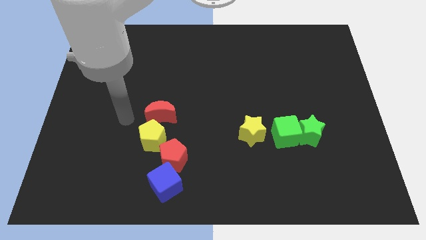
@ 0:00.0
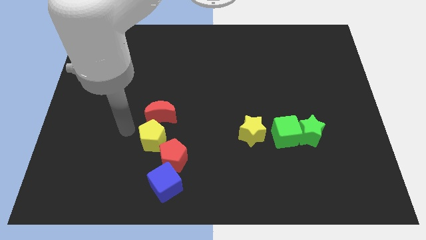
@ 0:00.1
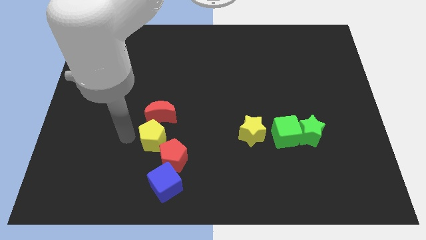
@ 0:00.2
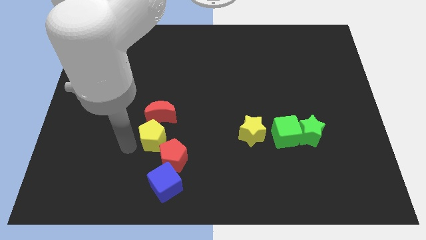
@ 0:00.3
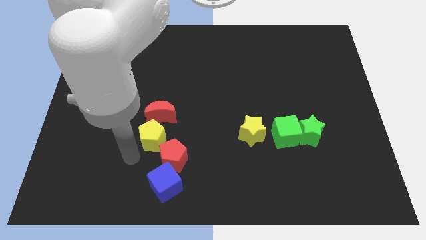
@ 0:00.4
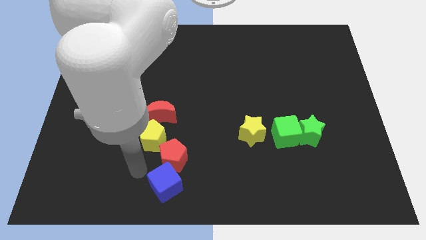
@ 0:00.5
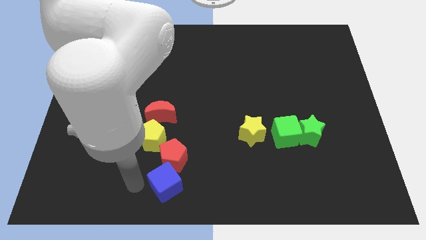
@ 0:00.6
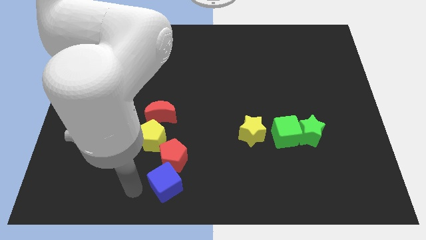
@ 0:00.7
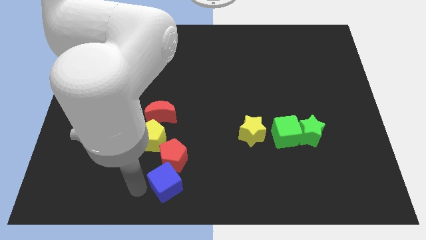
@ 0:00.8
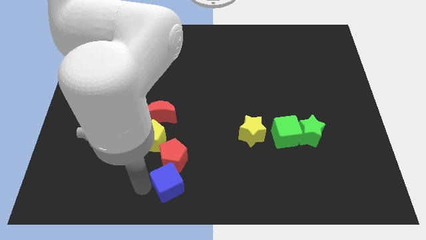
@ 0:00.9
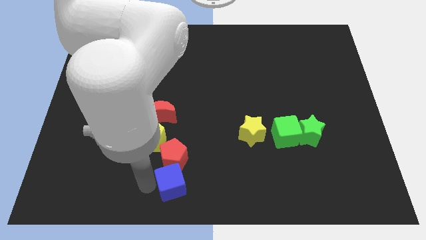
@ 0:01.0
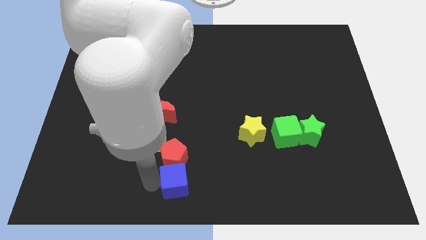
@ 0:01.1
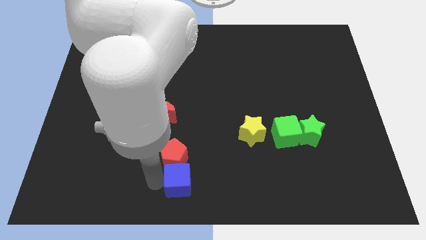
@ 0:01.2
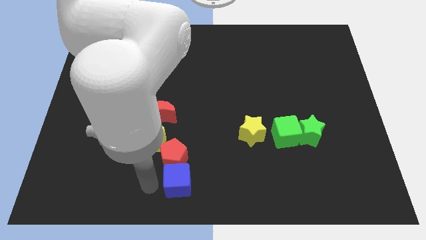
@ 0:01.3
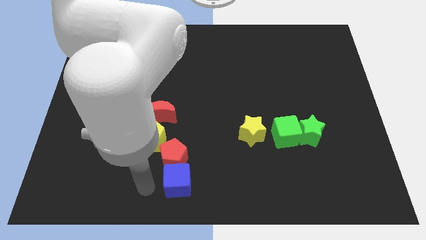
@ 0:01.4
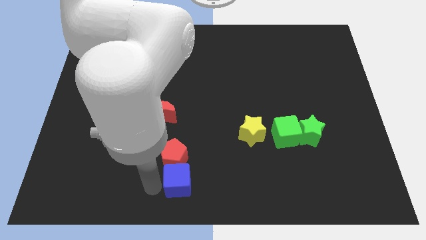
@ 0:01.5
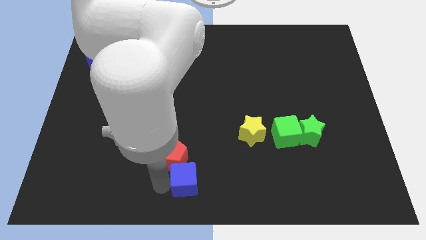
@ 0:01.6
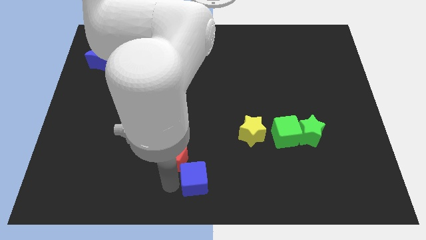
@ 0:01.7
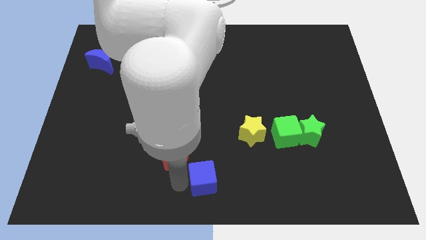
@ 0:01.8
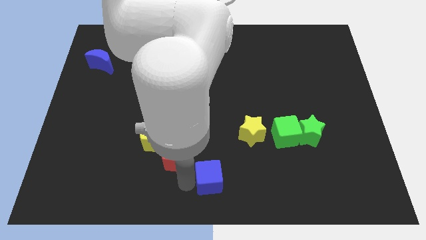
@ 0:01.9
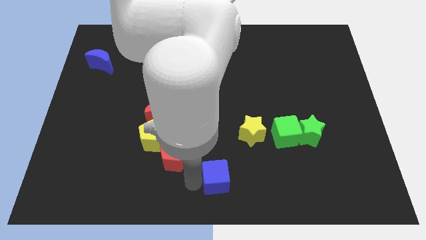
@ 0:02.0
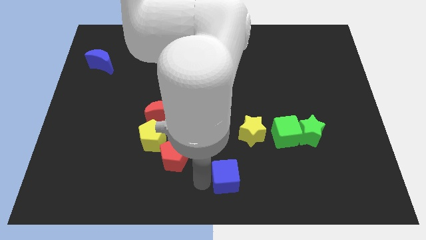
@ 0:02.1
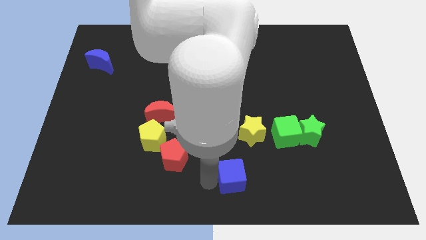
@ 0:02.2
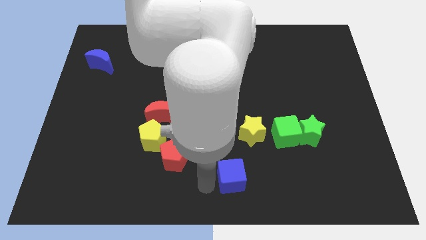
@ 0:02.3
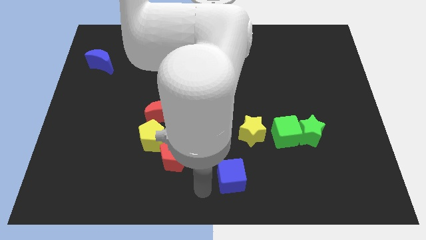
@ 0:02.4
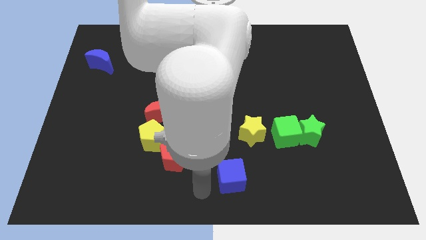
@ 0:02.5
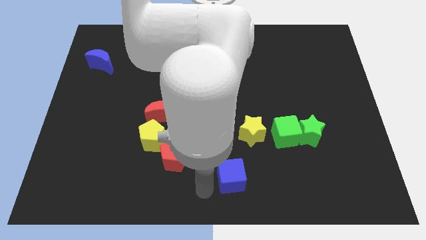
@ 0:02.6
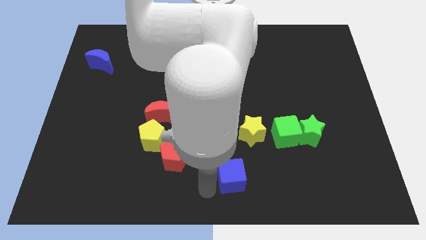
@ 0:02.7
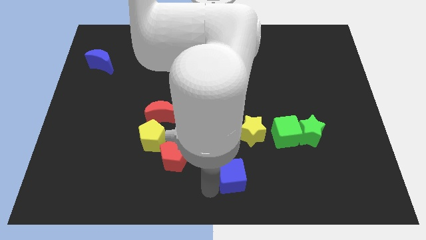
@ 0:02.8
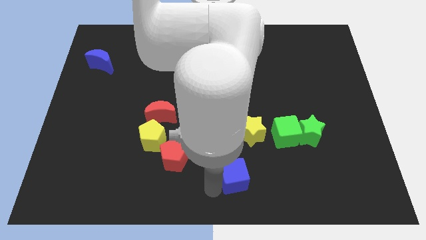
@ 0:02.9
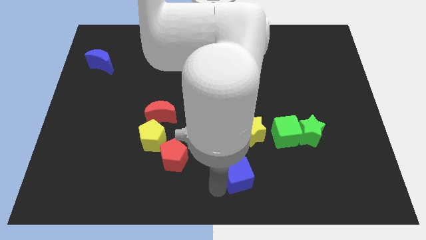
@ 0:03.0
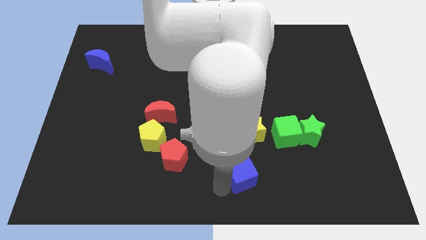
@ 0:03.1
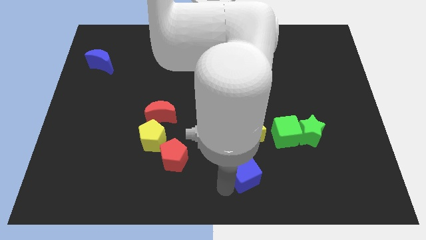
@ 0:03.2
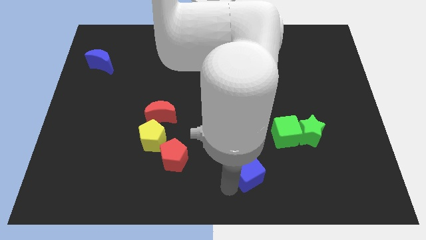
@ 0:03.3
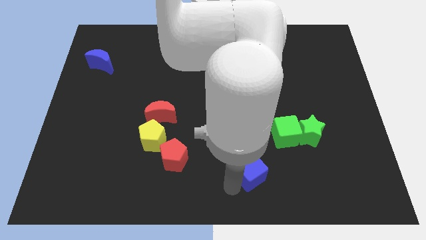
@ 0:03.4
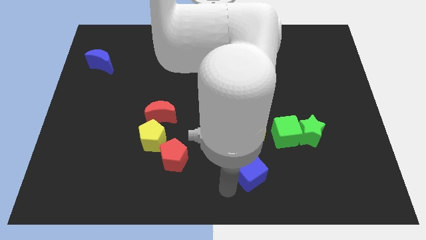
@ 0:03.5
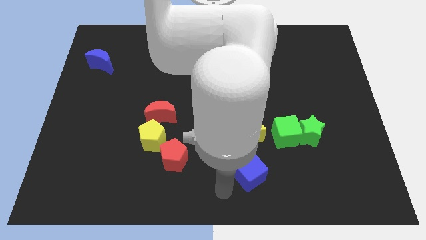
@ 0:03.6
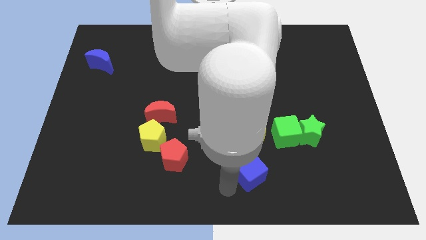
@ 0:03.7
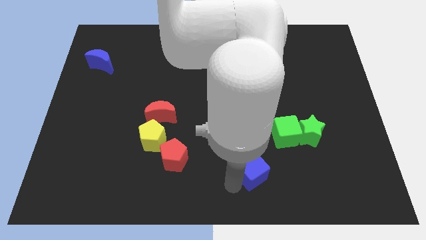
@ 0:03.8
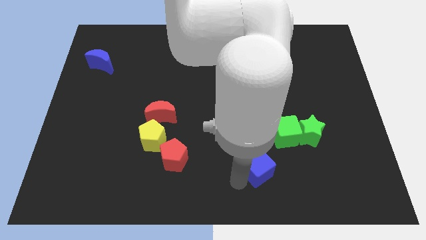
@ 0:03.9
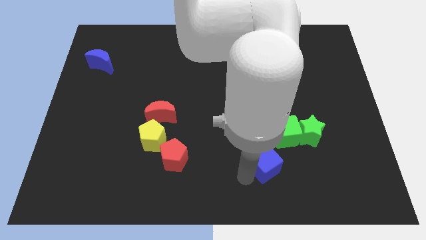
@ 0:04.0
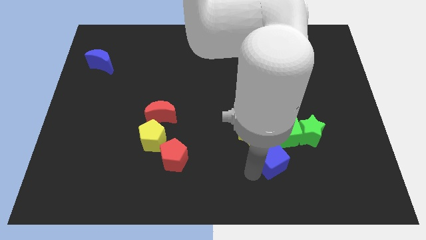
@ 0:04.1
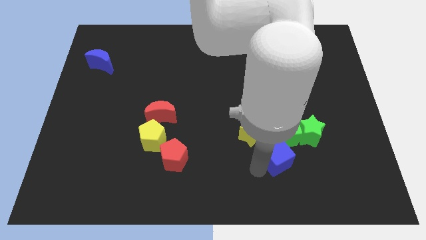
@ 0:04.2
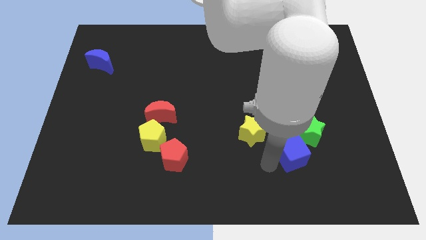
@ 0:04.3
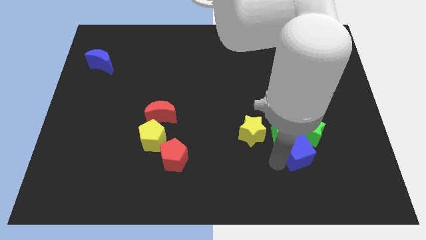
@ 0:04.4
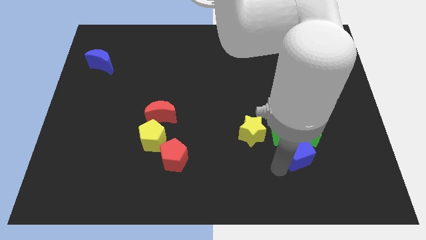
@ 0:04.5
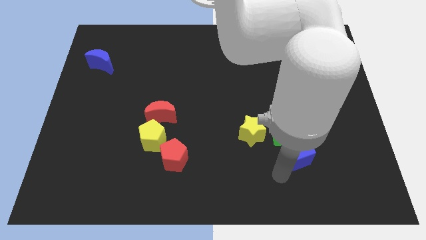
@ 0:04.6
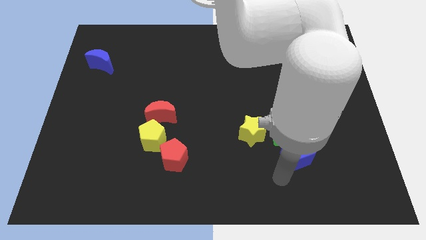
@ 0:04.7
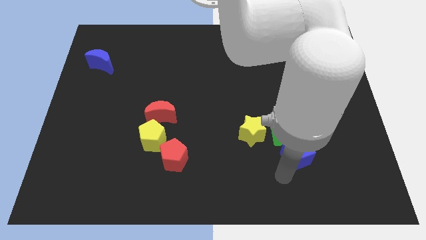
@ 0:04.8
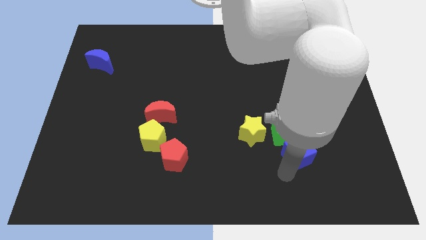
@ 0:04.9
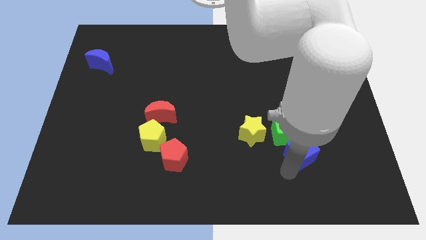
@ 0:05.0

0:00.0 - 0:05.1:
slide the blue cube towards the green star

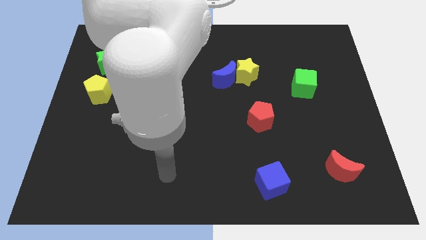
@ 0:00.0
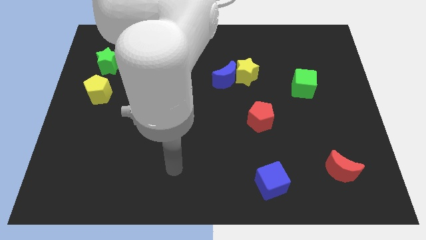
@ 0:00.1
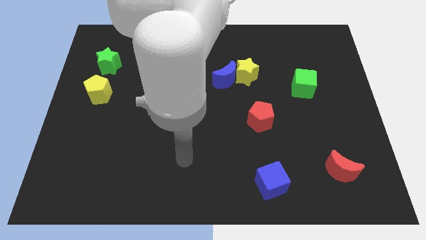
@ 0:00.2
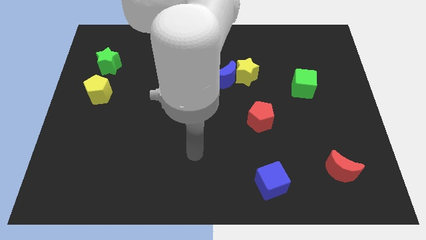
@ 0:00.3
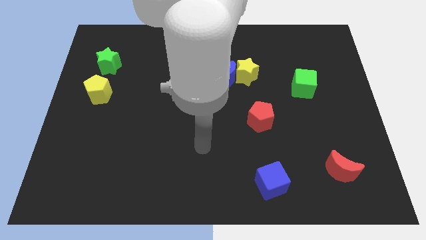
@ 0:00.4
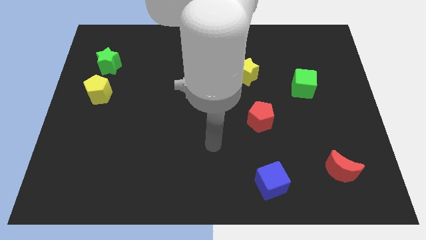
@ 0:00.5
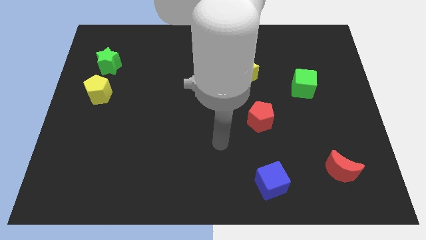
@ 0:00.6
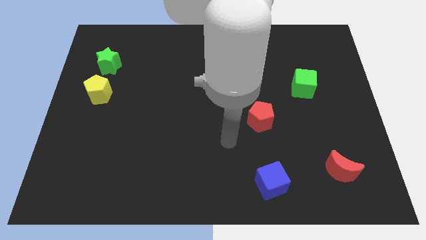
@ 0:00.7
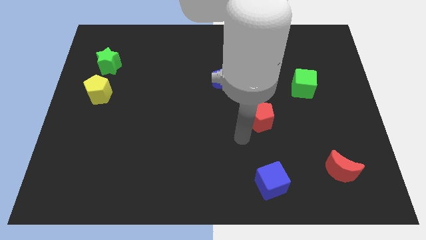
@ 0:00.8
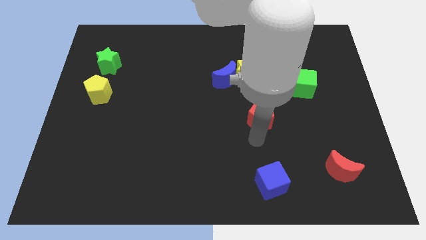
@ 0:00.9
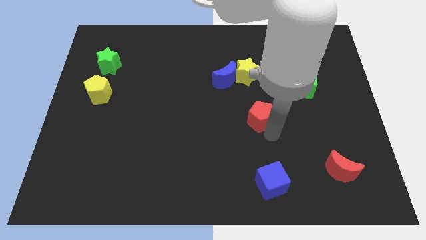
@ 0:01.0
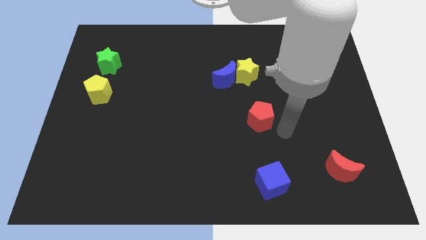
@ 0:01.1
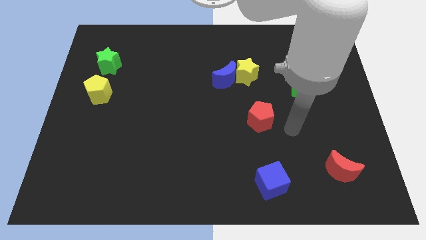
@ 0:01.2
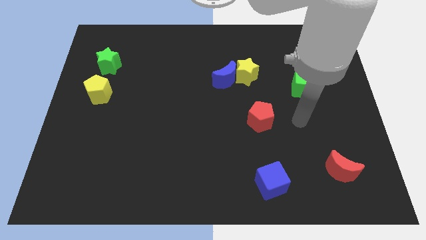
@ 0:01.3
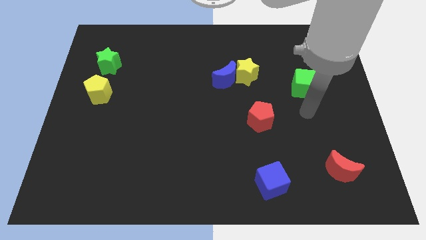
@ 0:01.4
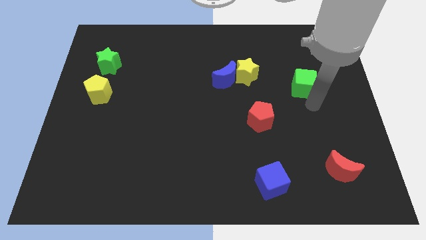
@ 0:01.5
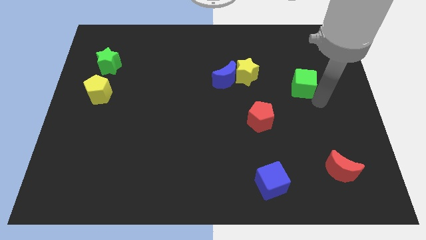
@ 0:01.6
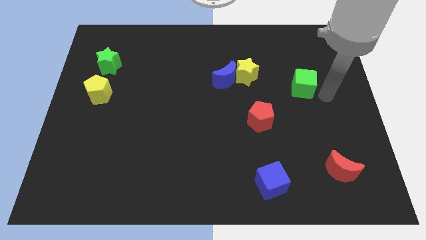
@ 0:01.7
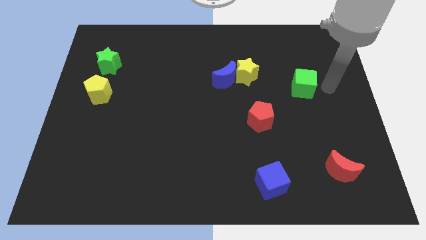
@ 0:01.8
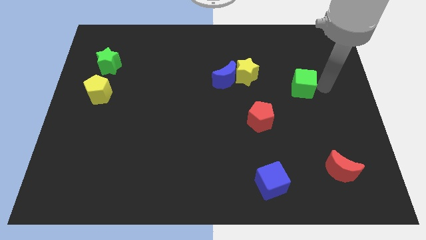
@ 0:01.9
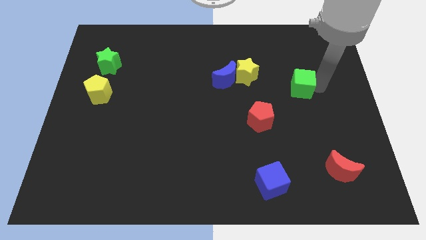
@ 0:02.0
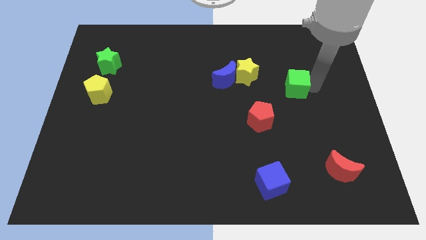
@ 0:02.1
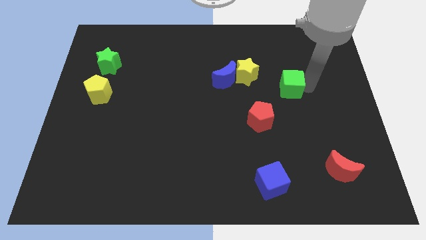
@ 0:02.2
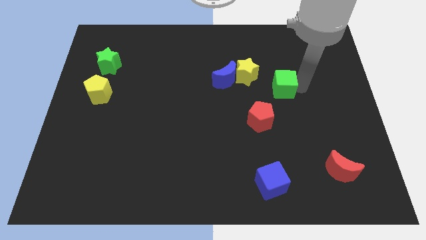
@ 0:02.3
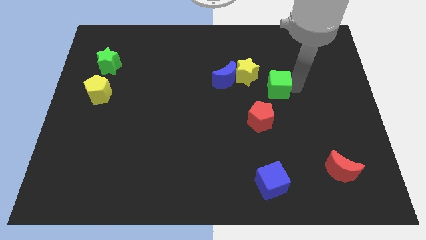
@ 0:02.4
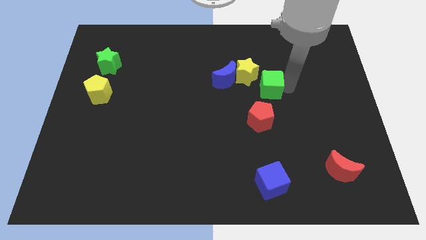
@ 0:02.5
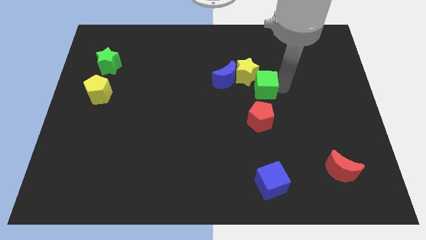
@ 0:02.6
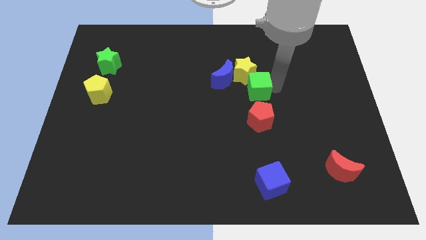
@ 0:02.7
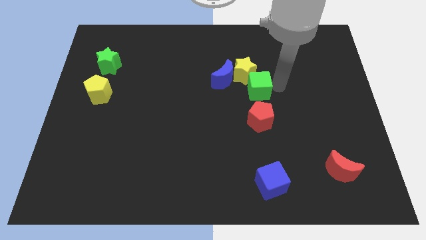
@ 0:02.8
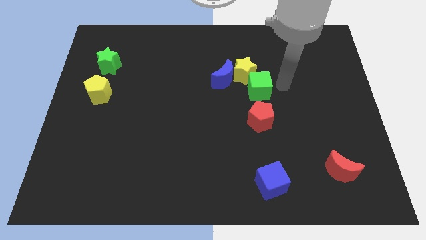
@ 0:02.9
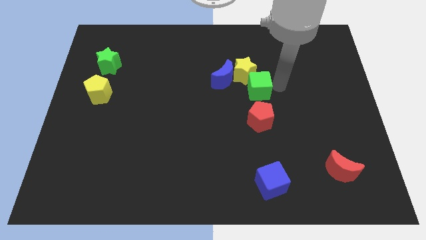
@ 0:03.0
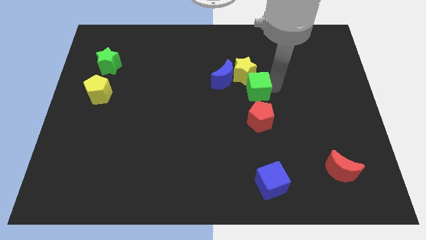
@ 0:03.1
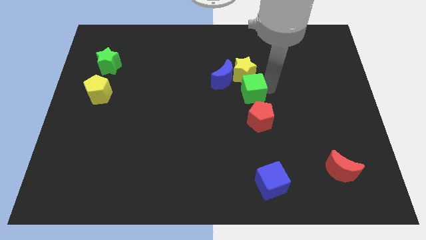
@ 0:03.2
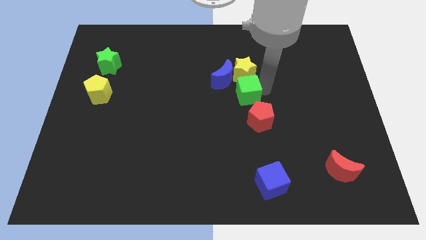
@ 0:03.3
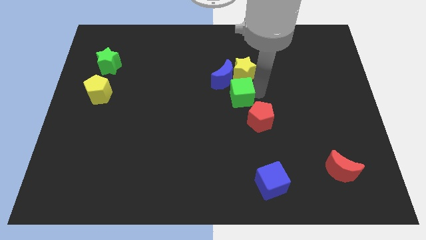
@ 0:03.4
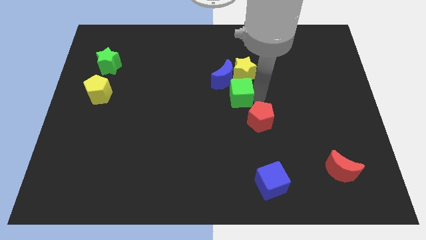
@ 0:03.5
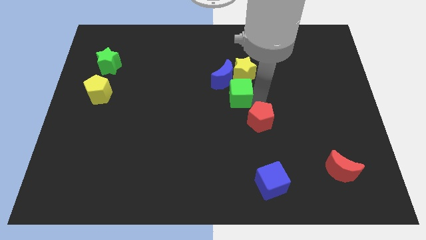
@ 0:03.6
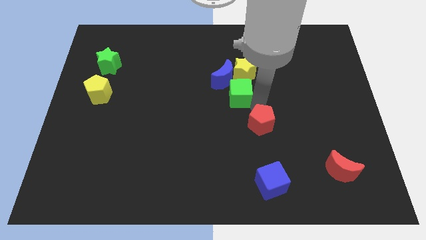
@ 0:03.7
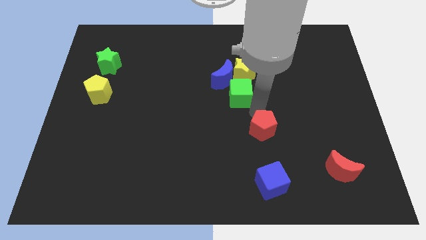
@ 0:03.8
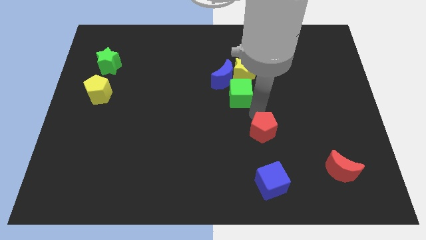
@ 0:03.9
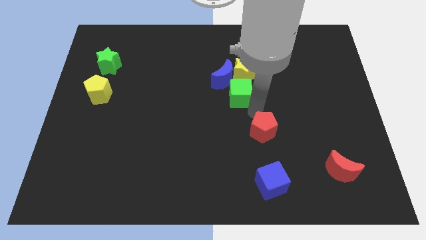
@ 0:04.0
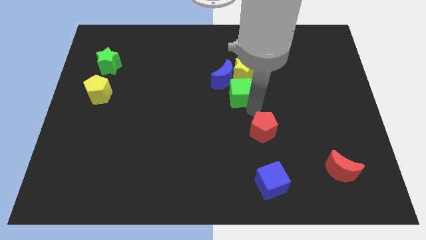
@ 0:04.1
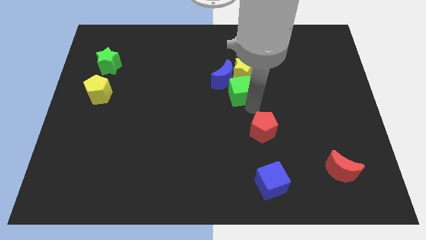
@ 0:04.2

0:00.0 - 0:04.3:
put the green cube to the blue moon
